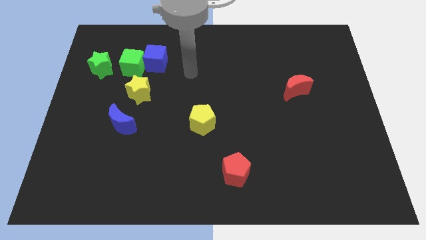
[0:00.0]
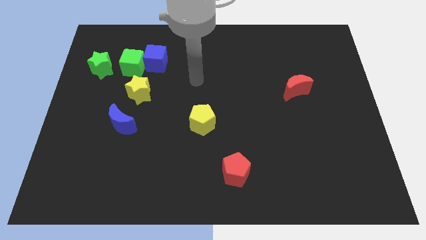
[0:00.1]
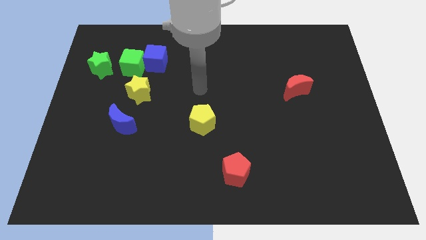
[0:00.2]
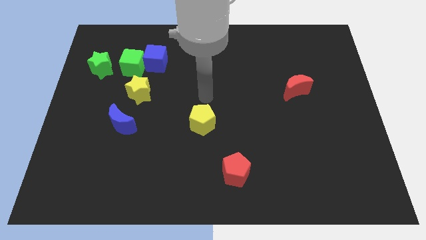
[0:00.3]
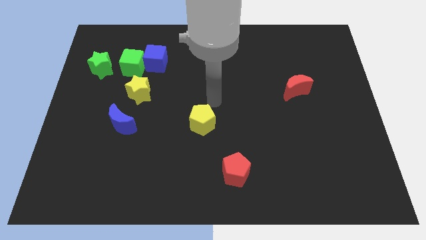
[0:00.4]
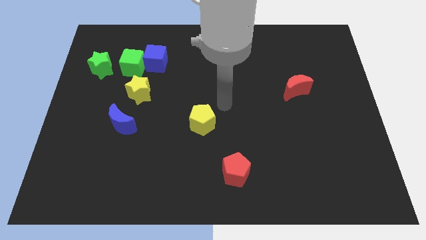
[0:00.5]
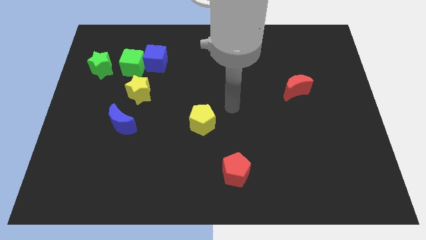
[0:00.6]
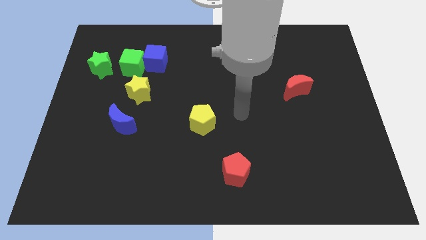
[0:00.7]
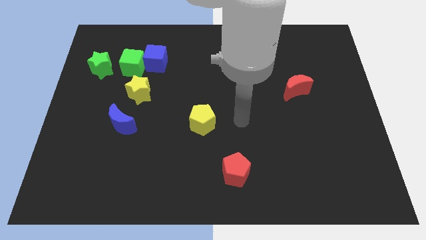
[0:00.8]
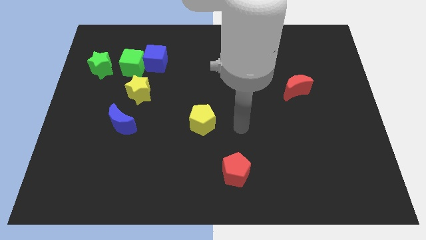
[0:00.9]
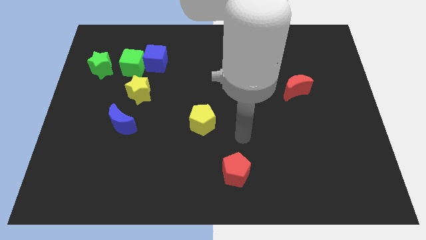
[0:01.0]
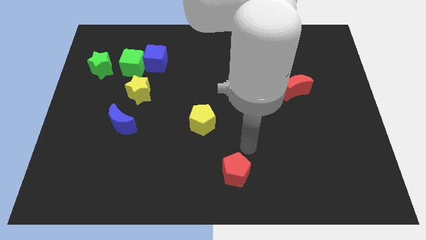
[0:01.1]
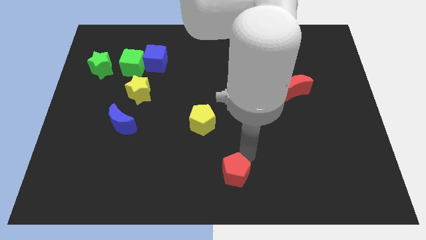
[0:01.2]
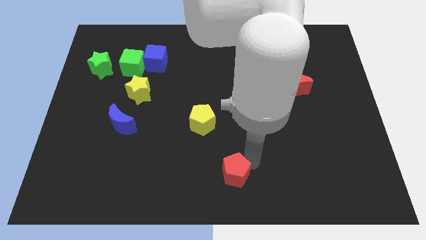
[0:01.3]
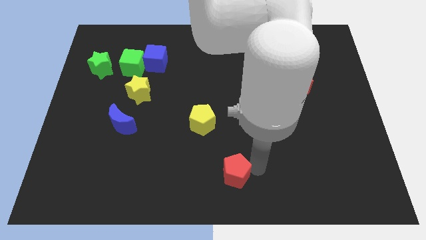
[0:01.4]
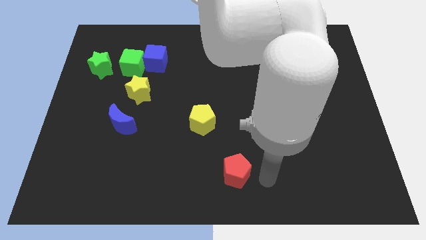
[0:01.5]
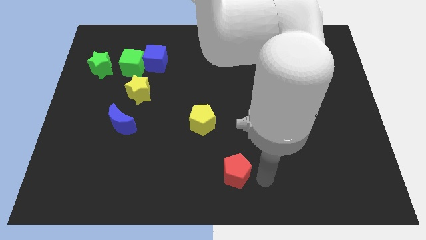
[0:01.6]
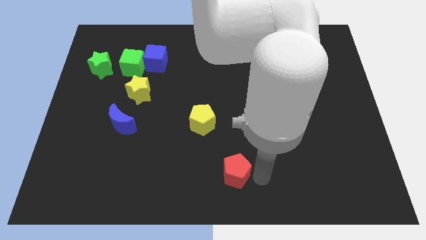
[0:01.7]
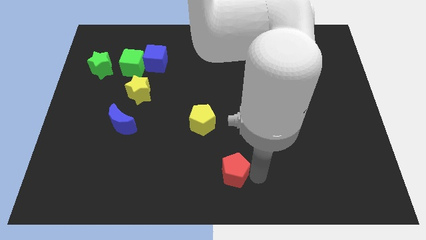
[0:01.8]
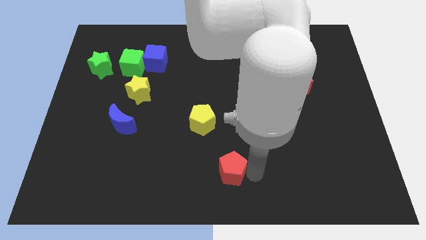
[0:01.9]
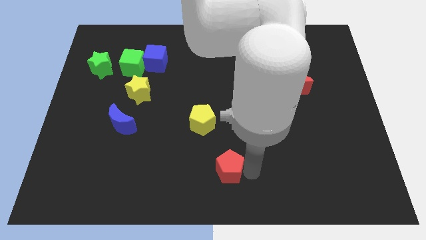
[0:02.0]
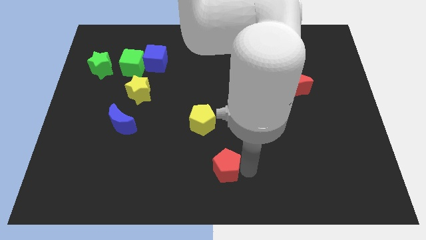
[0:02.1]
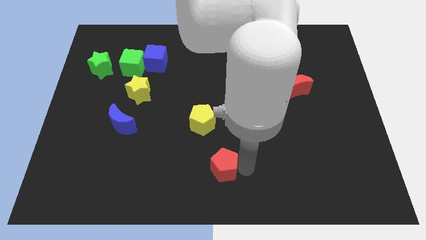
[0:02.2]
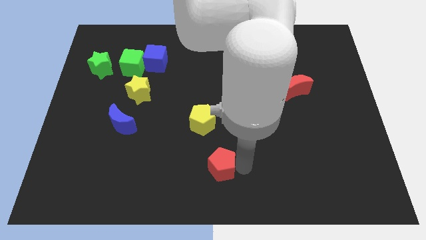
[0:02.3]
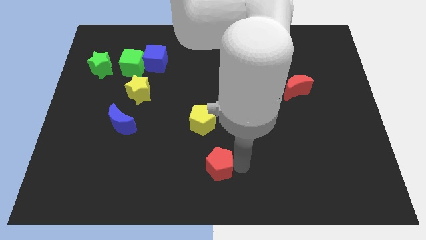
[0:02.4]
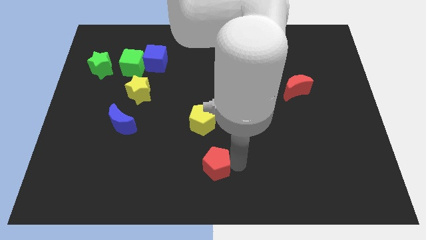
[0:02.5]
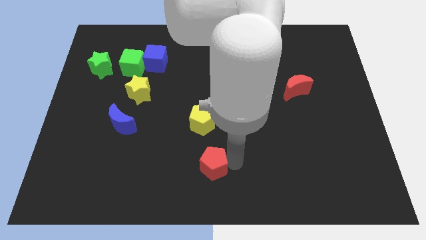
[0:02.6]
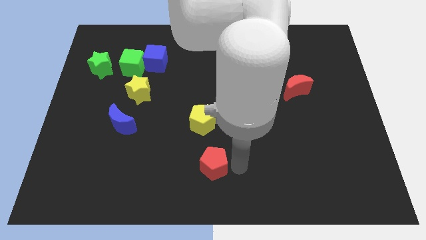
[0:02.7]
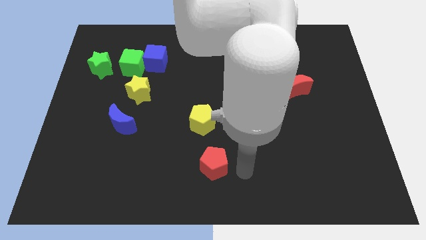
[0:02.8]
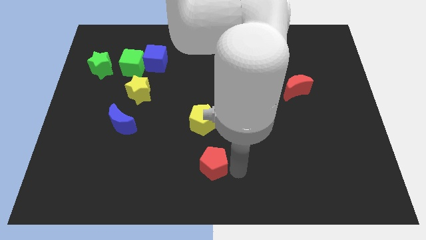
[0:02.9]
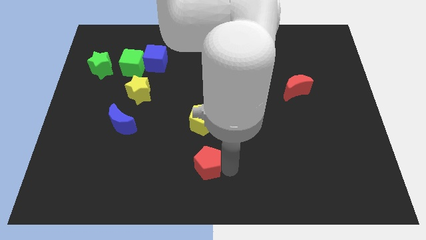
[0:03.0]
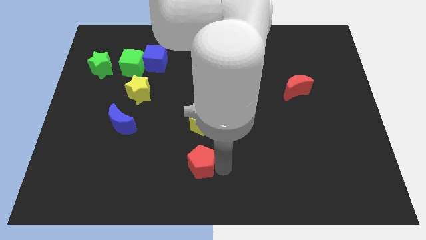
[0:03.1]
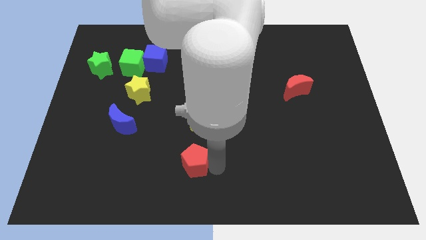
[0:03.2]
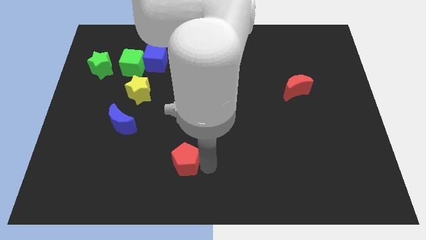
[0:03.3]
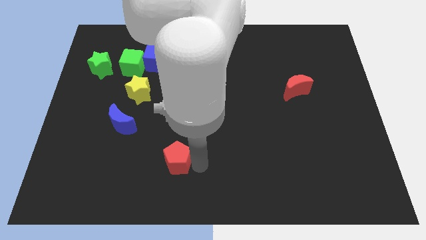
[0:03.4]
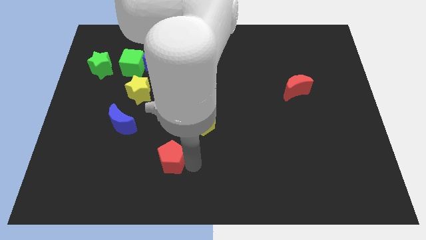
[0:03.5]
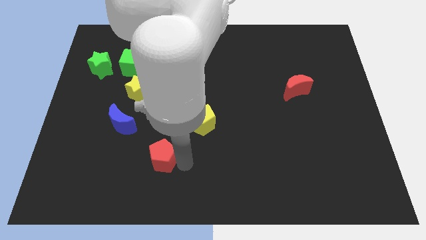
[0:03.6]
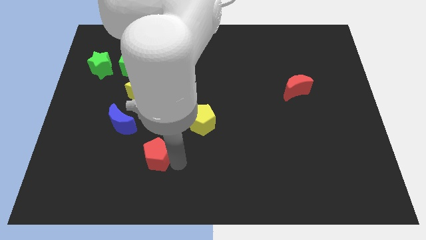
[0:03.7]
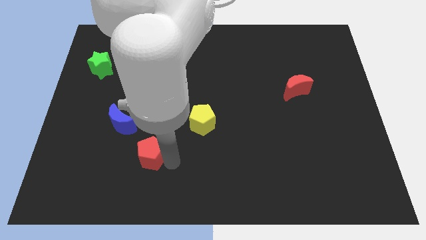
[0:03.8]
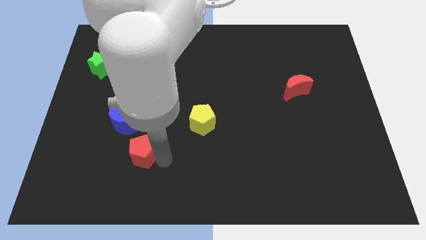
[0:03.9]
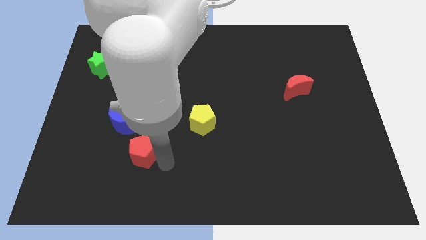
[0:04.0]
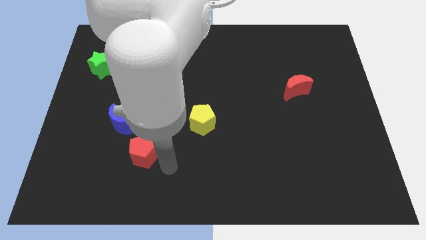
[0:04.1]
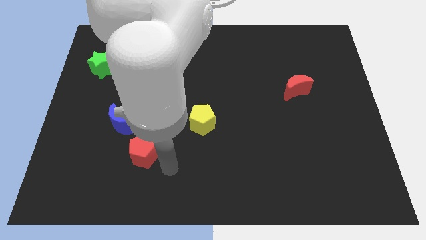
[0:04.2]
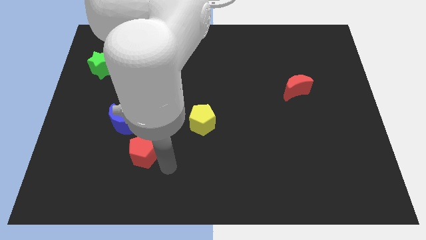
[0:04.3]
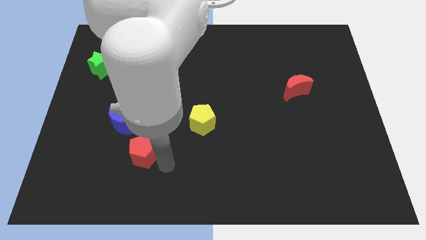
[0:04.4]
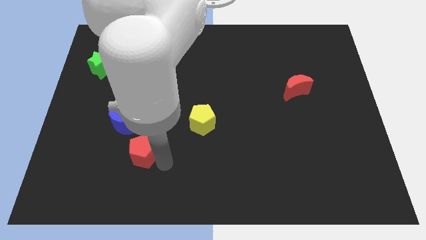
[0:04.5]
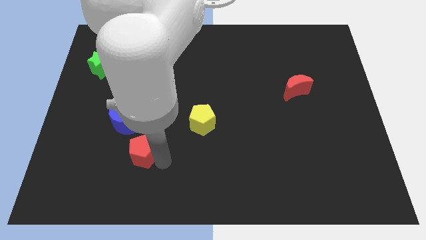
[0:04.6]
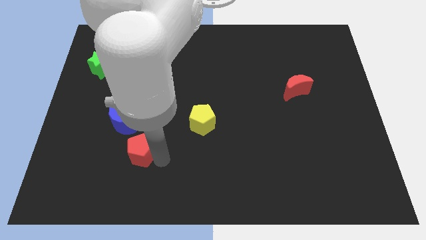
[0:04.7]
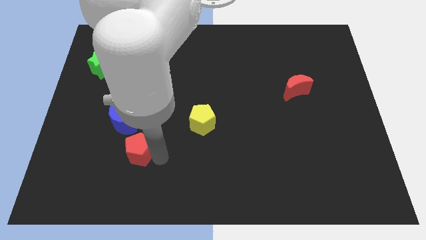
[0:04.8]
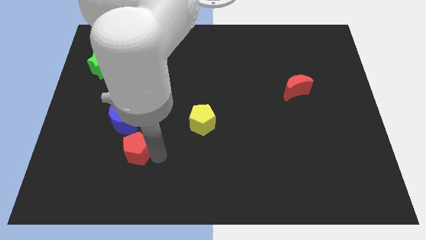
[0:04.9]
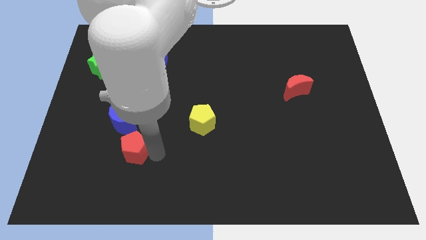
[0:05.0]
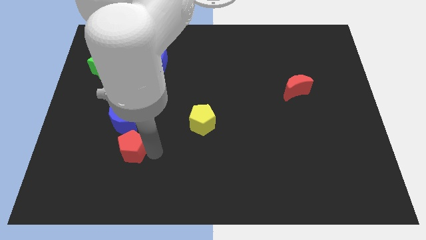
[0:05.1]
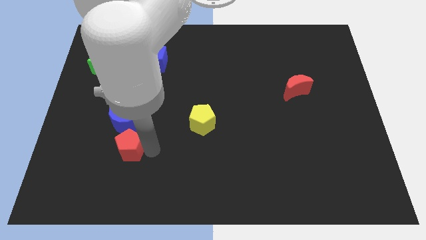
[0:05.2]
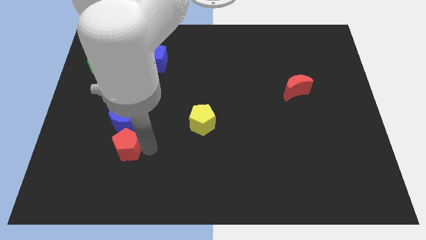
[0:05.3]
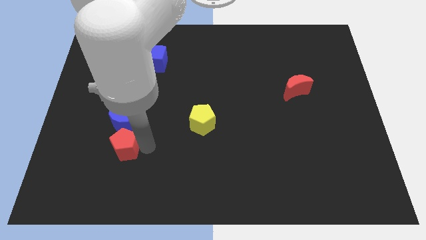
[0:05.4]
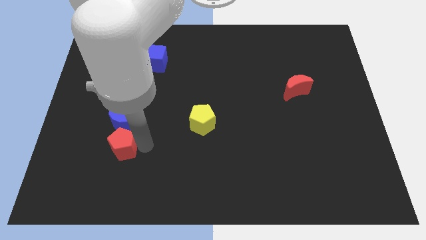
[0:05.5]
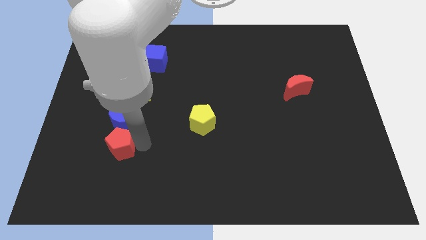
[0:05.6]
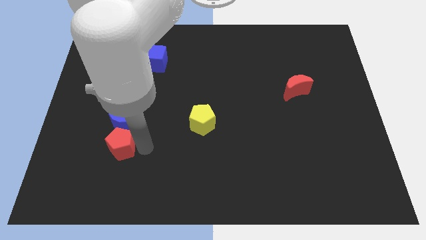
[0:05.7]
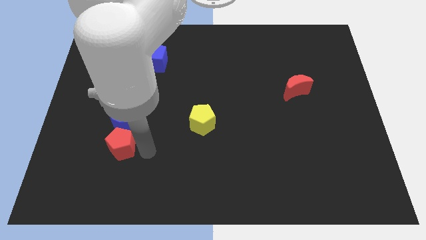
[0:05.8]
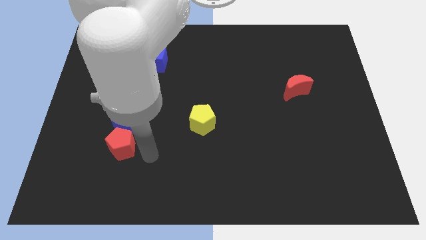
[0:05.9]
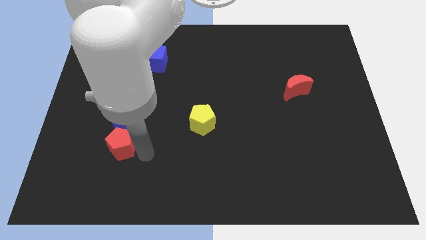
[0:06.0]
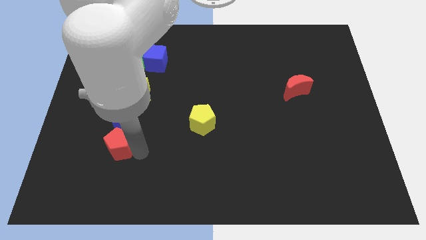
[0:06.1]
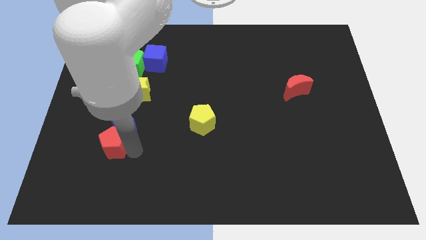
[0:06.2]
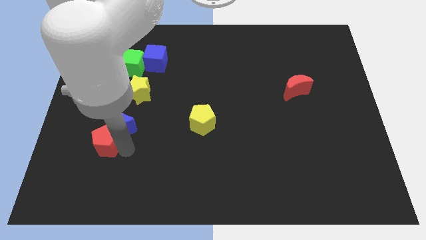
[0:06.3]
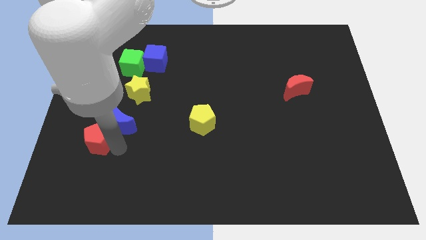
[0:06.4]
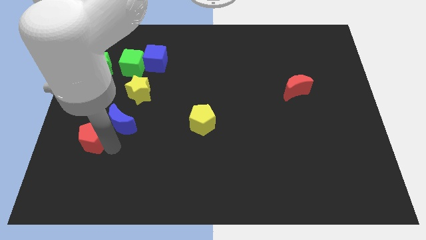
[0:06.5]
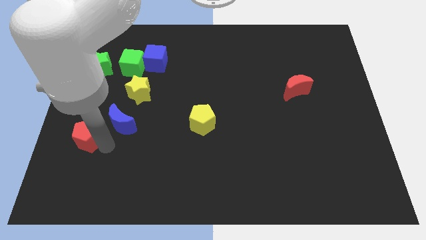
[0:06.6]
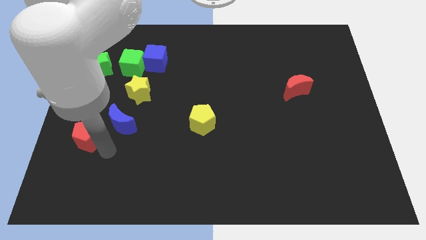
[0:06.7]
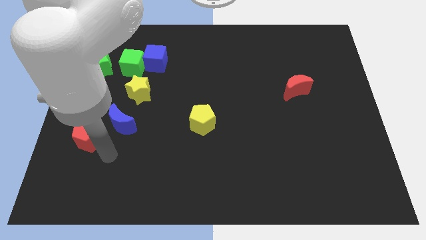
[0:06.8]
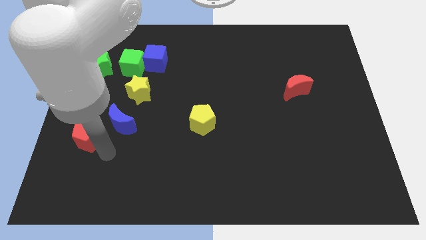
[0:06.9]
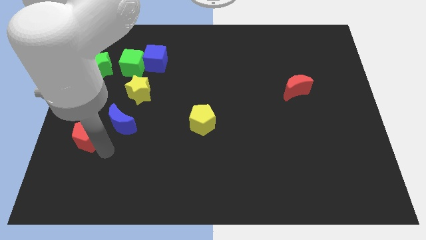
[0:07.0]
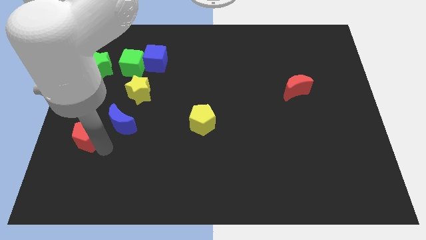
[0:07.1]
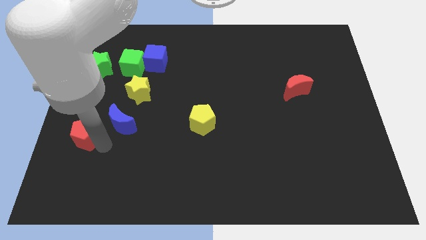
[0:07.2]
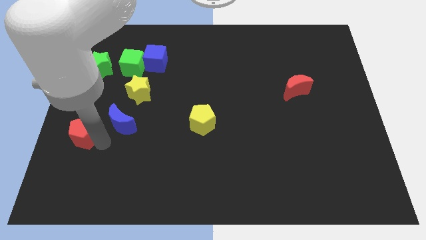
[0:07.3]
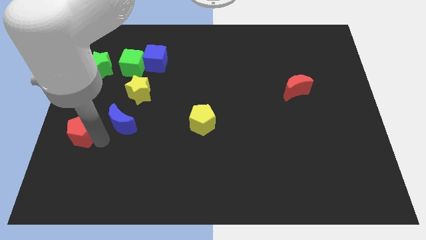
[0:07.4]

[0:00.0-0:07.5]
put the red pentagon to the left side
